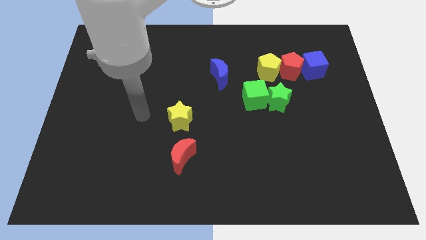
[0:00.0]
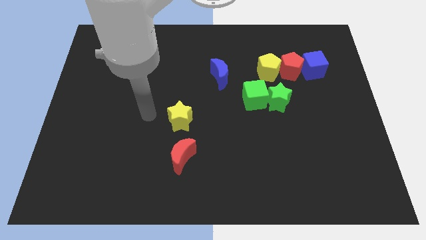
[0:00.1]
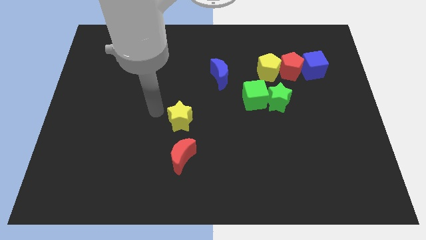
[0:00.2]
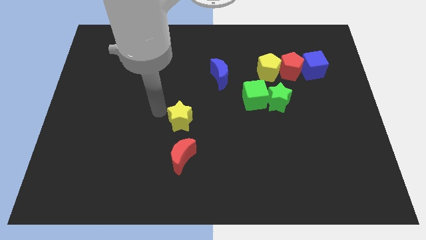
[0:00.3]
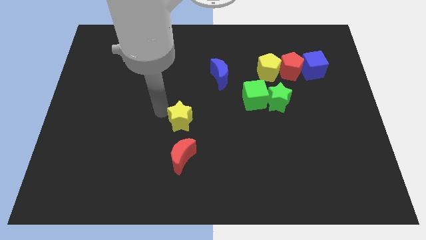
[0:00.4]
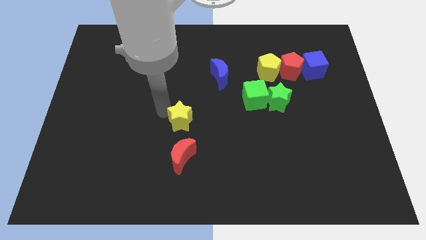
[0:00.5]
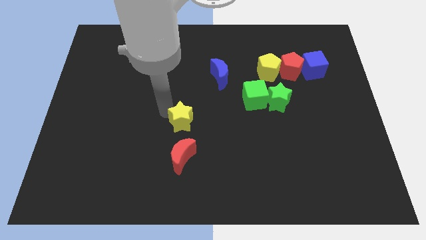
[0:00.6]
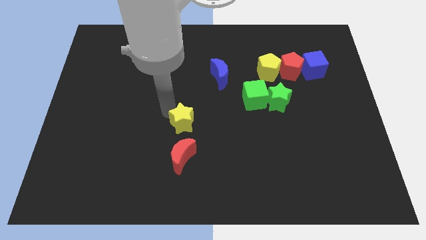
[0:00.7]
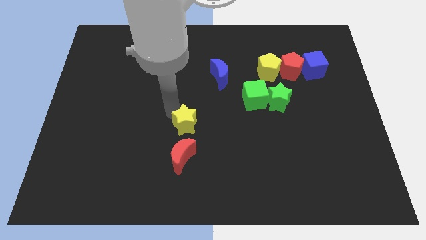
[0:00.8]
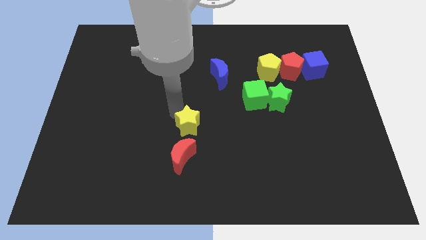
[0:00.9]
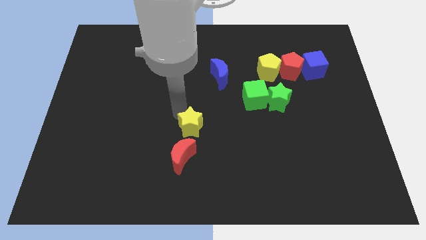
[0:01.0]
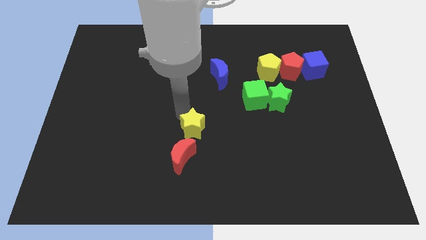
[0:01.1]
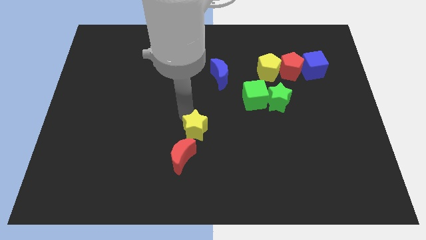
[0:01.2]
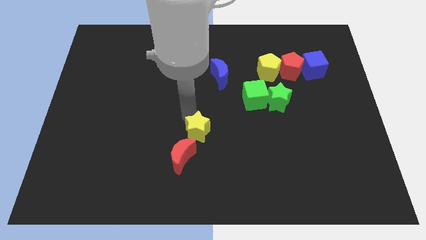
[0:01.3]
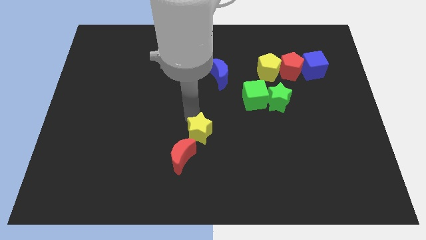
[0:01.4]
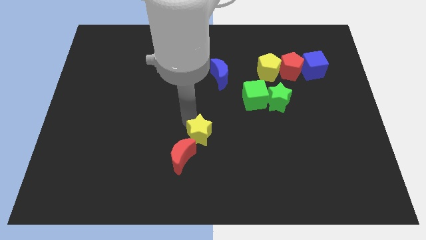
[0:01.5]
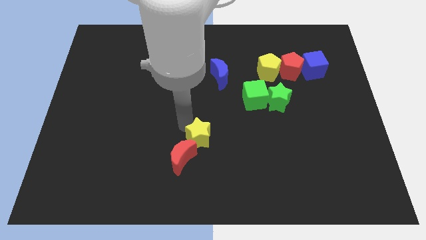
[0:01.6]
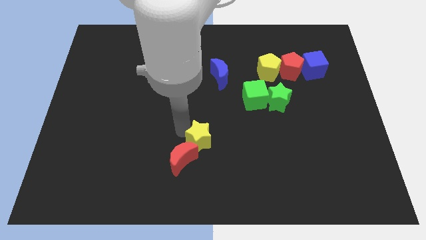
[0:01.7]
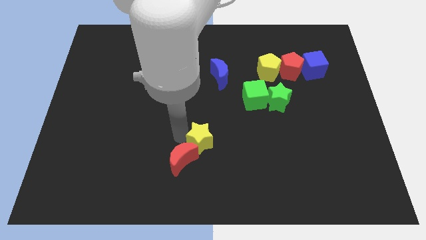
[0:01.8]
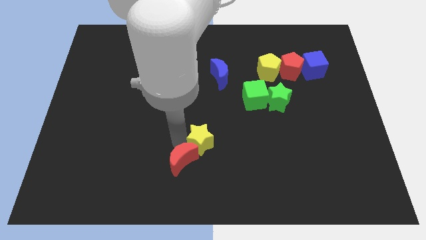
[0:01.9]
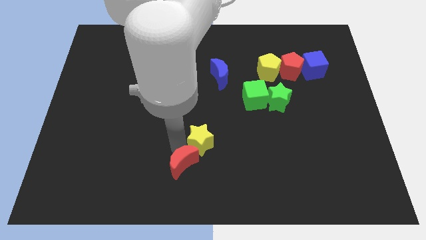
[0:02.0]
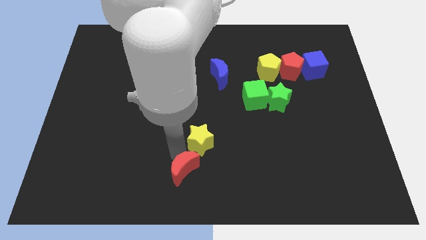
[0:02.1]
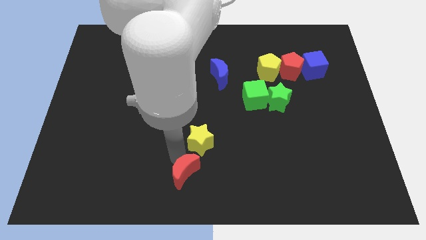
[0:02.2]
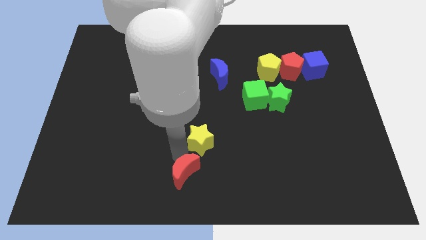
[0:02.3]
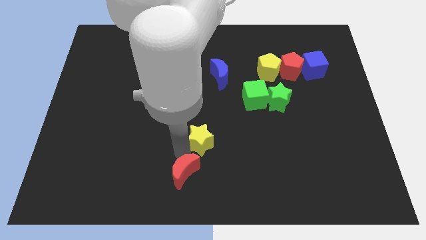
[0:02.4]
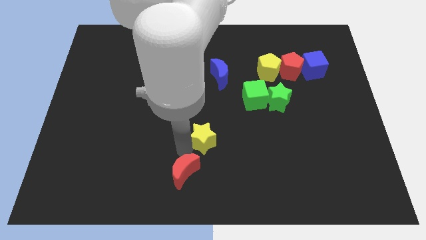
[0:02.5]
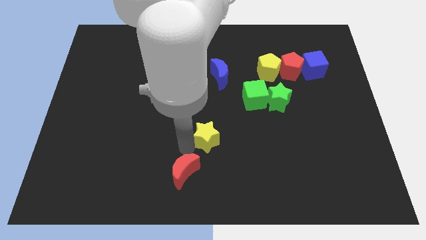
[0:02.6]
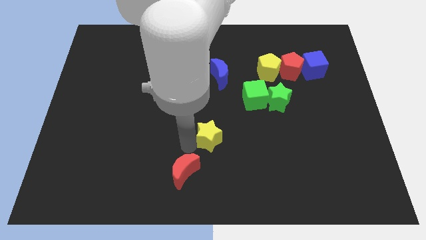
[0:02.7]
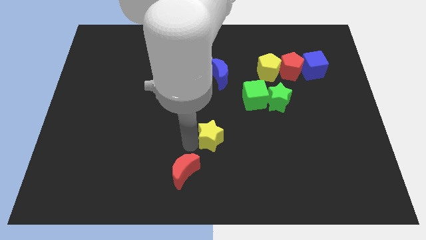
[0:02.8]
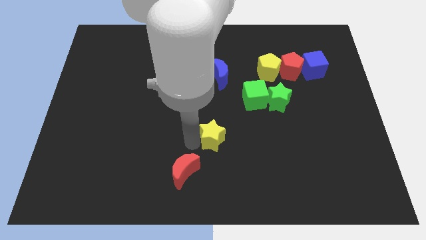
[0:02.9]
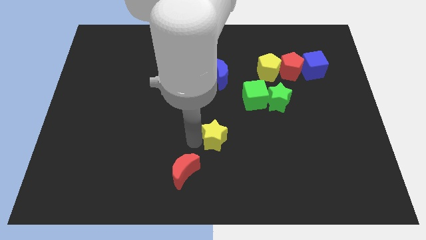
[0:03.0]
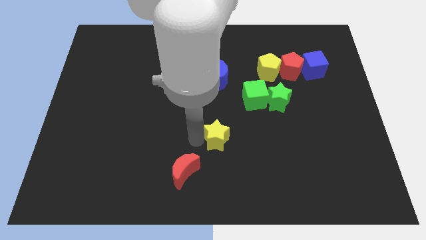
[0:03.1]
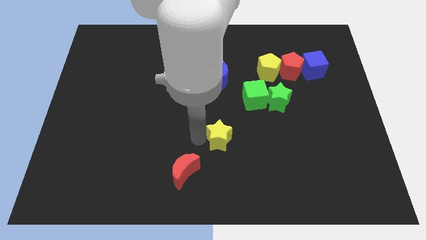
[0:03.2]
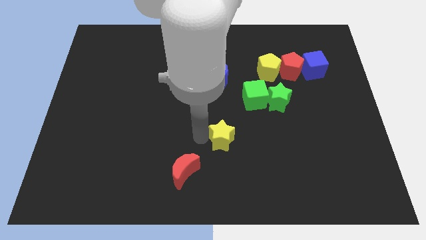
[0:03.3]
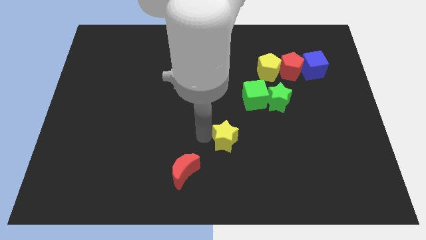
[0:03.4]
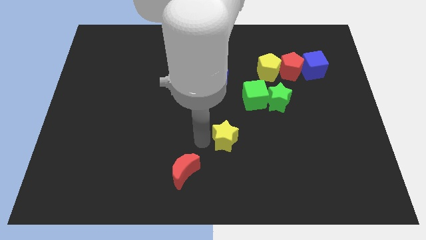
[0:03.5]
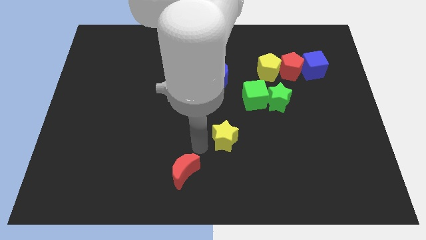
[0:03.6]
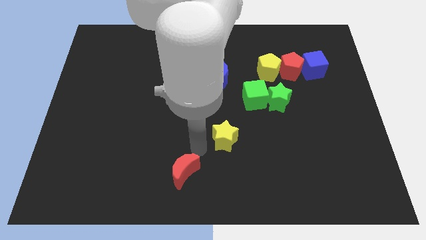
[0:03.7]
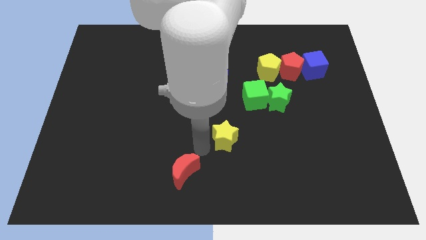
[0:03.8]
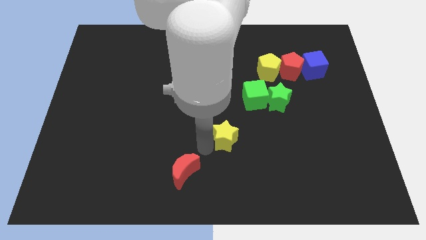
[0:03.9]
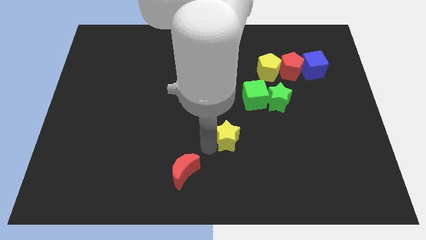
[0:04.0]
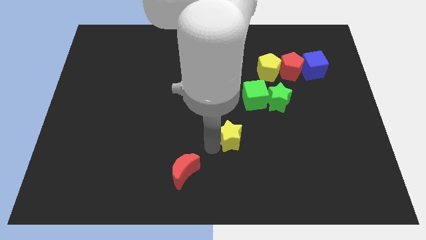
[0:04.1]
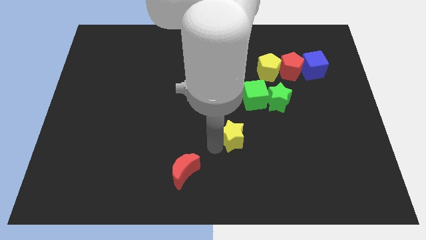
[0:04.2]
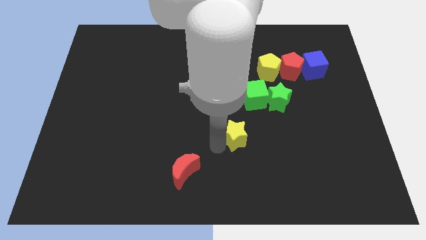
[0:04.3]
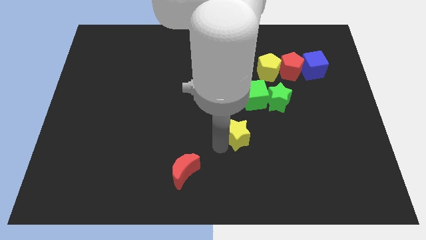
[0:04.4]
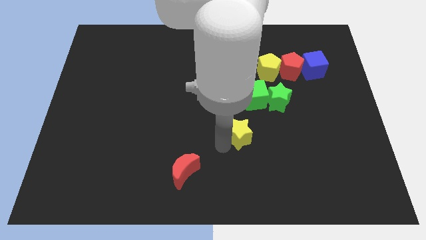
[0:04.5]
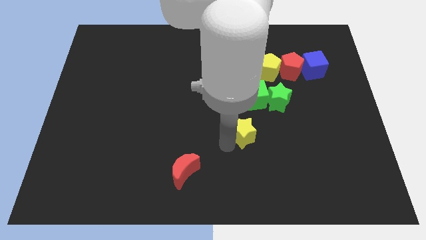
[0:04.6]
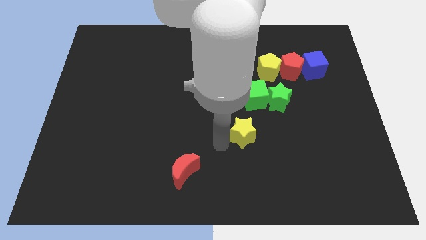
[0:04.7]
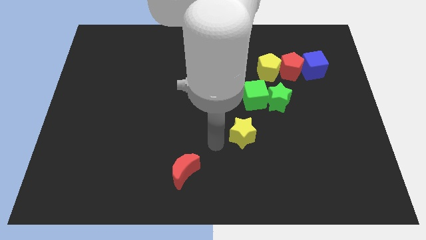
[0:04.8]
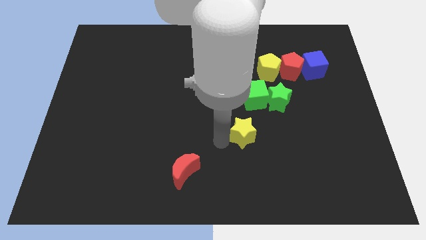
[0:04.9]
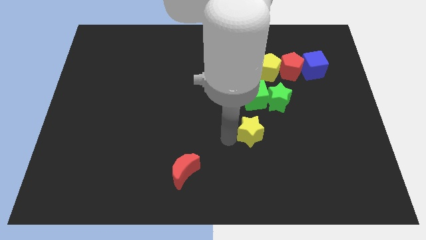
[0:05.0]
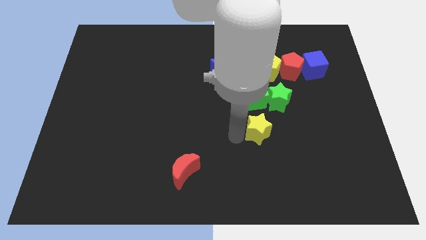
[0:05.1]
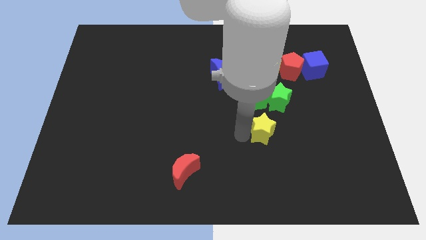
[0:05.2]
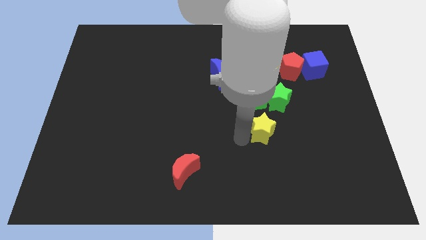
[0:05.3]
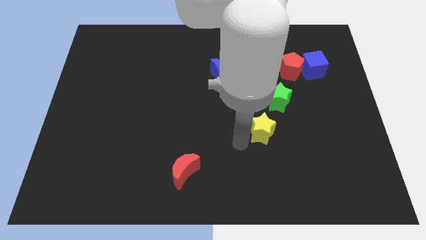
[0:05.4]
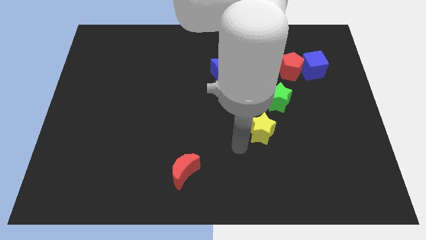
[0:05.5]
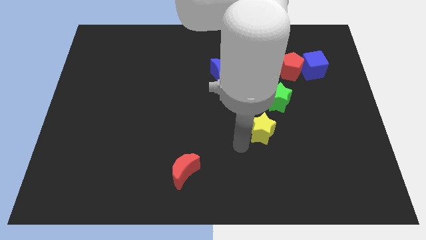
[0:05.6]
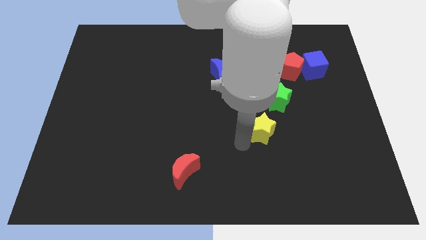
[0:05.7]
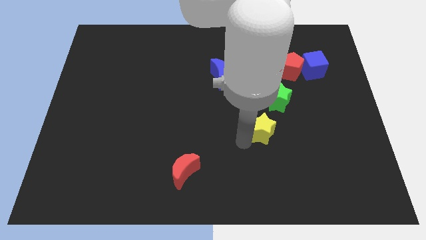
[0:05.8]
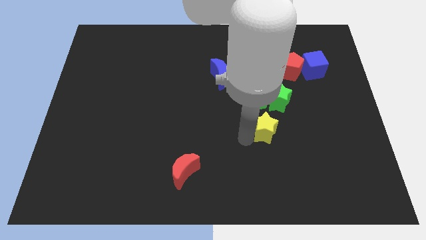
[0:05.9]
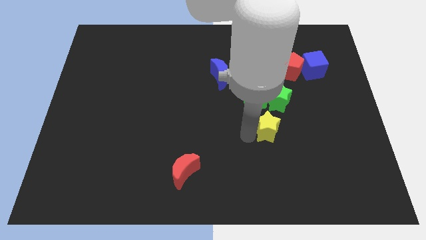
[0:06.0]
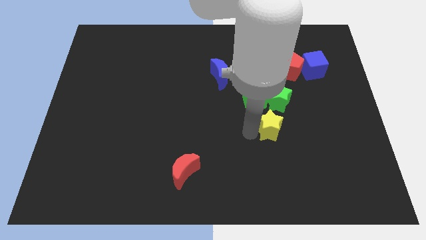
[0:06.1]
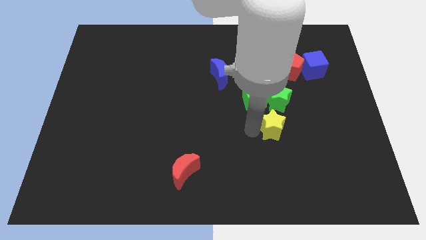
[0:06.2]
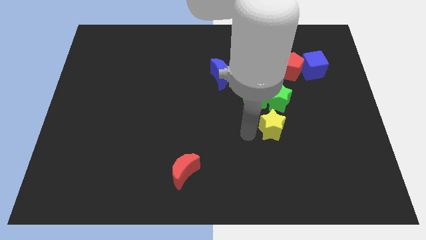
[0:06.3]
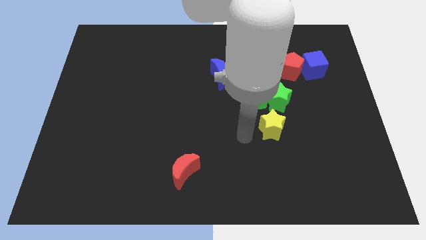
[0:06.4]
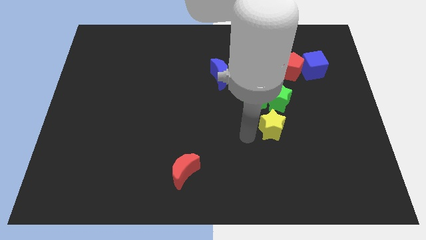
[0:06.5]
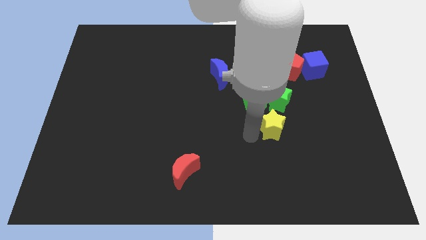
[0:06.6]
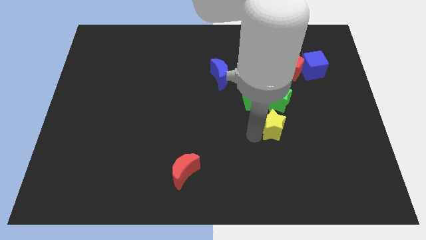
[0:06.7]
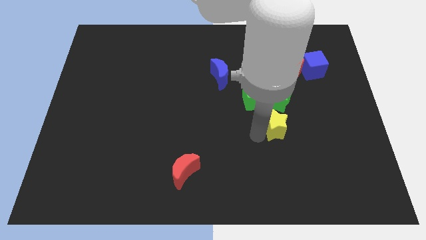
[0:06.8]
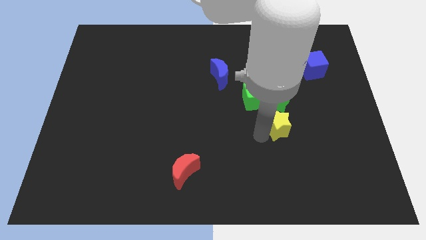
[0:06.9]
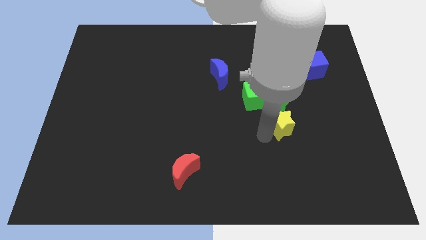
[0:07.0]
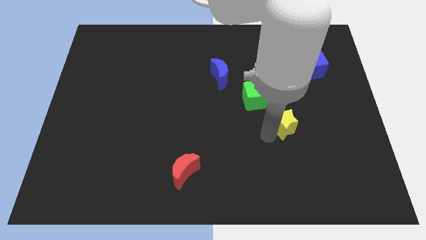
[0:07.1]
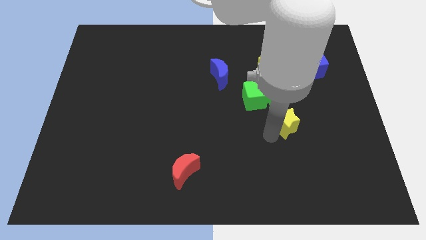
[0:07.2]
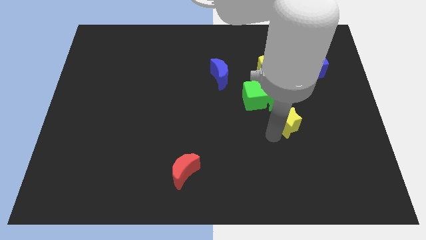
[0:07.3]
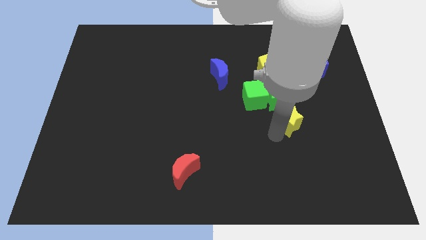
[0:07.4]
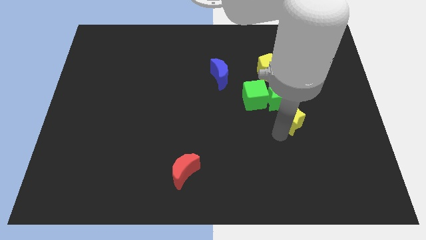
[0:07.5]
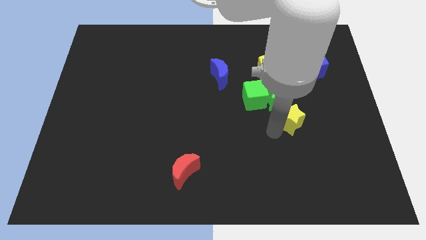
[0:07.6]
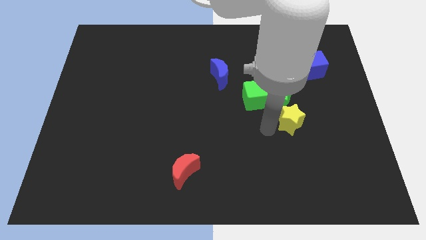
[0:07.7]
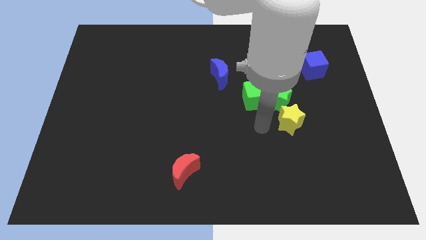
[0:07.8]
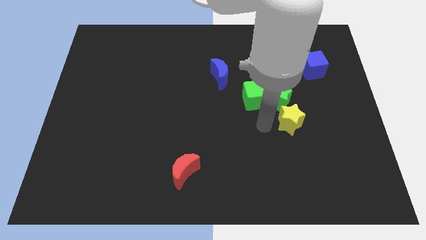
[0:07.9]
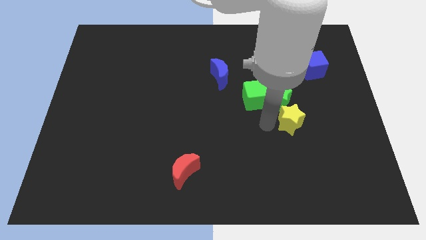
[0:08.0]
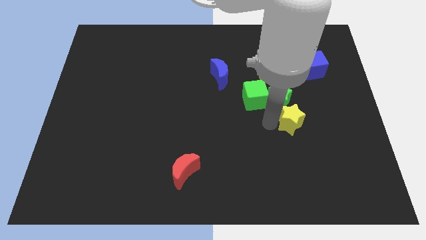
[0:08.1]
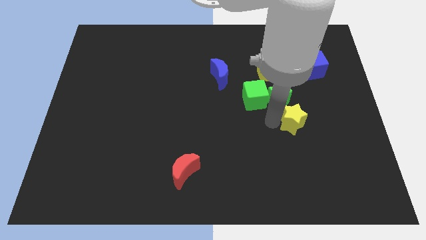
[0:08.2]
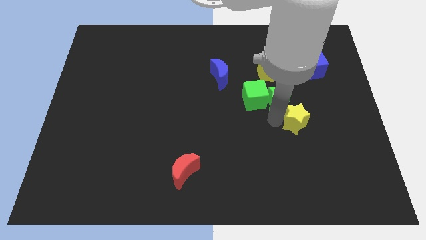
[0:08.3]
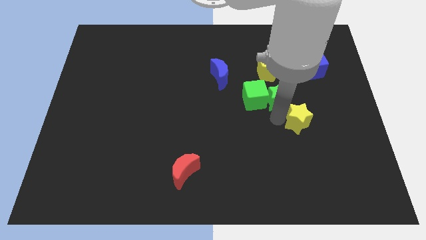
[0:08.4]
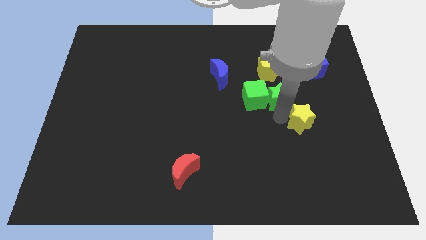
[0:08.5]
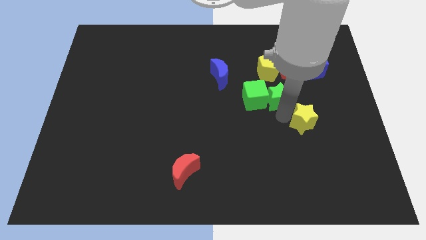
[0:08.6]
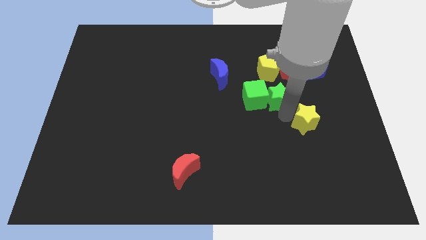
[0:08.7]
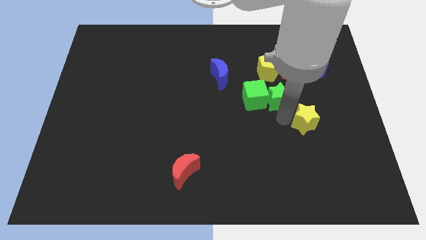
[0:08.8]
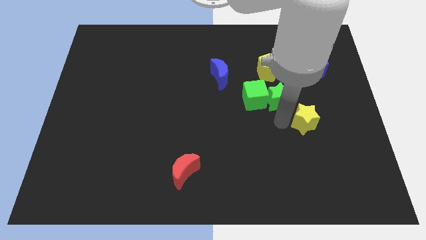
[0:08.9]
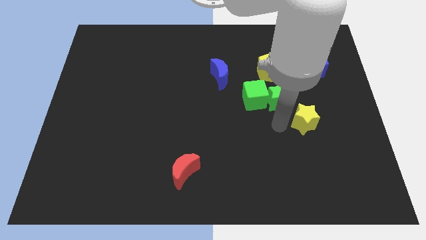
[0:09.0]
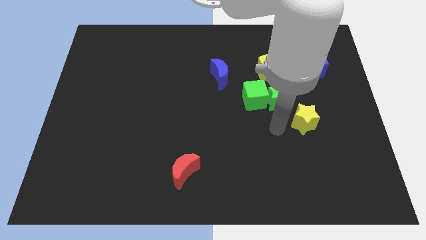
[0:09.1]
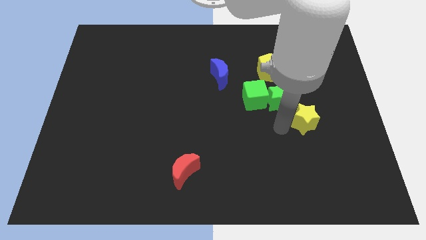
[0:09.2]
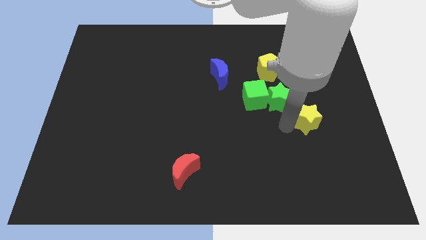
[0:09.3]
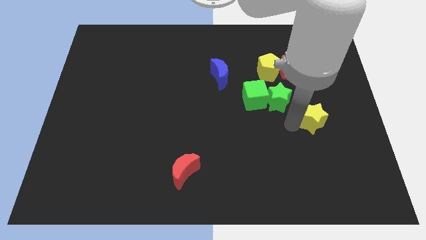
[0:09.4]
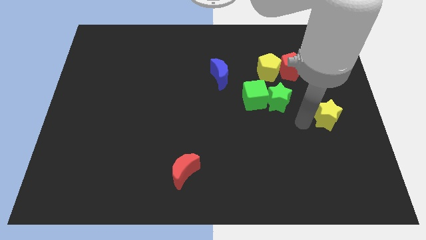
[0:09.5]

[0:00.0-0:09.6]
slide the yellow star to the center right
